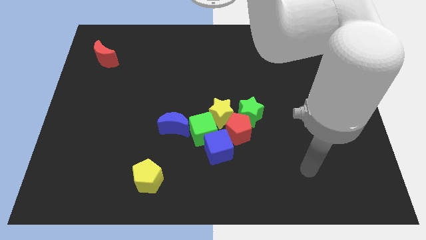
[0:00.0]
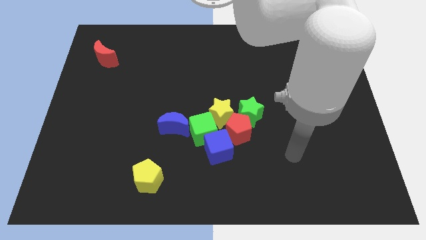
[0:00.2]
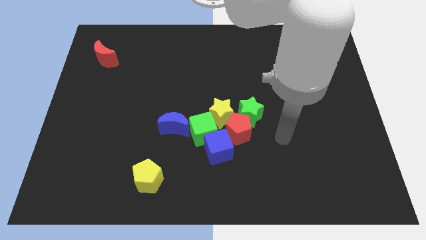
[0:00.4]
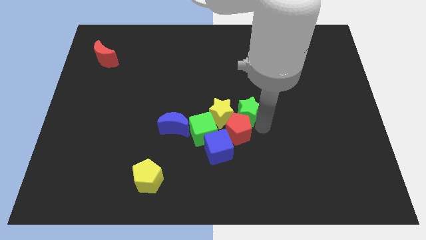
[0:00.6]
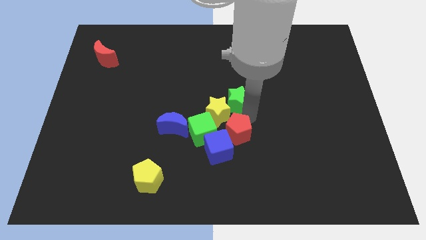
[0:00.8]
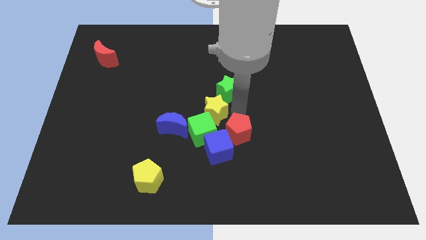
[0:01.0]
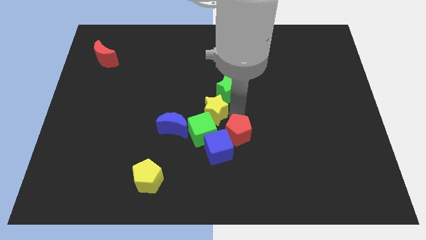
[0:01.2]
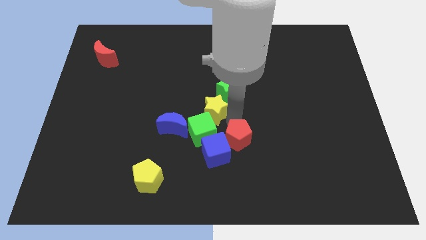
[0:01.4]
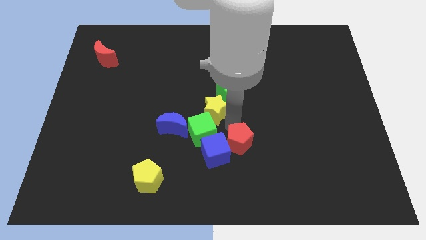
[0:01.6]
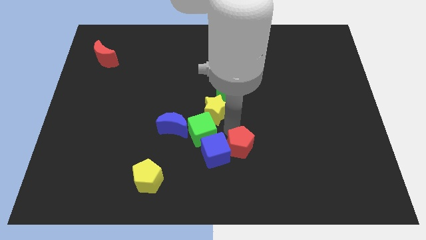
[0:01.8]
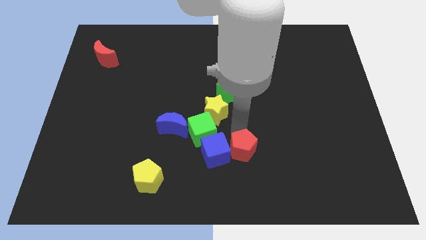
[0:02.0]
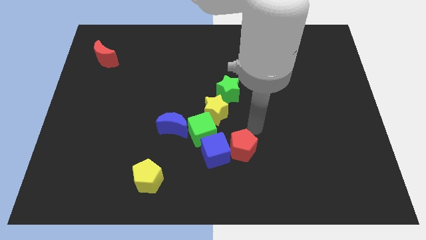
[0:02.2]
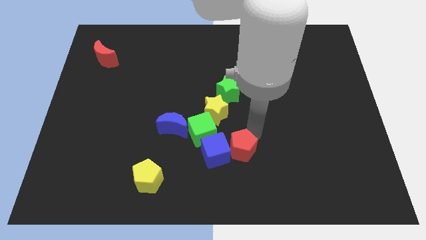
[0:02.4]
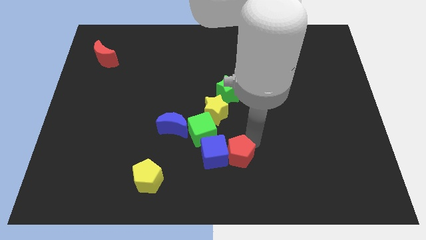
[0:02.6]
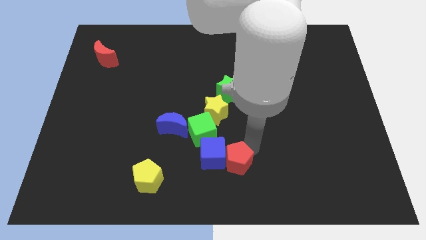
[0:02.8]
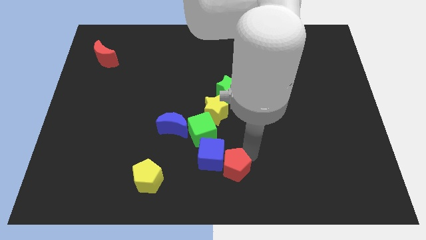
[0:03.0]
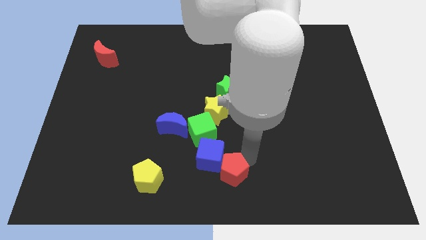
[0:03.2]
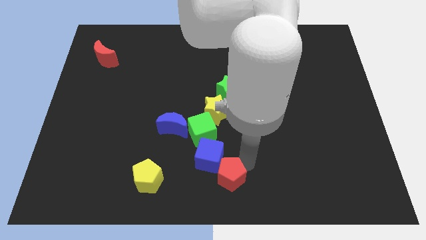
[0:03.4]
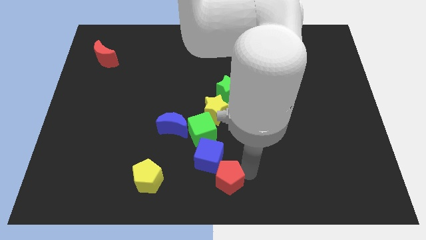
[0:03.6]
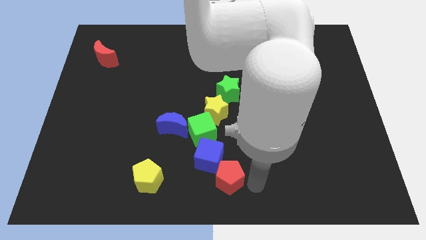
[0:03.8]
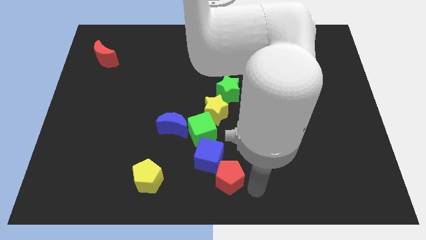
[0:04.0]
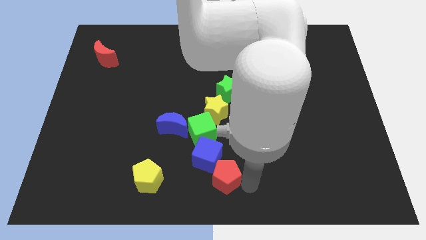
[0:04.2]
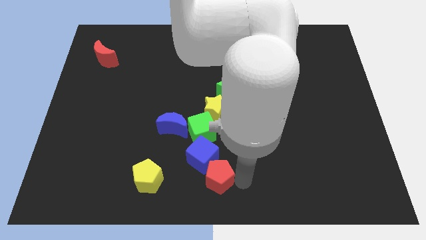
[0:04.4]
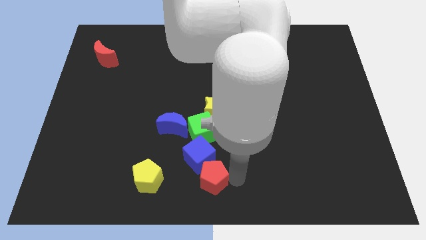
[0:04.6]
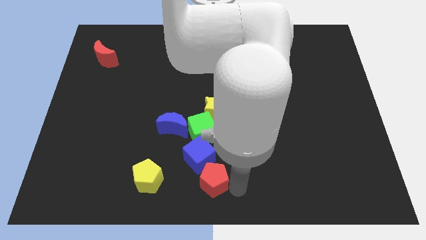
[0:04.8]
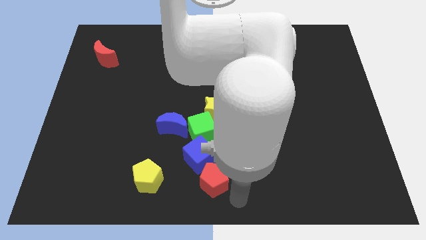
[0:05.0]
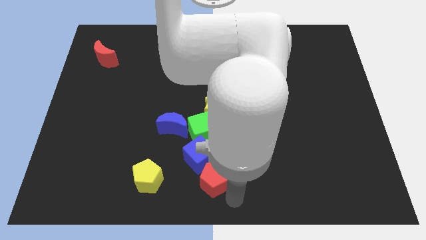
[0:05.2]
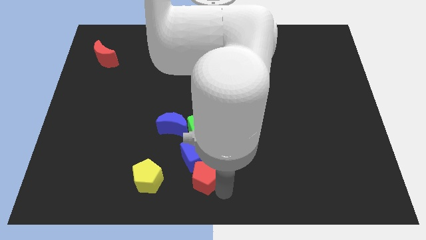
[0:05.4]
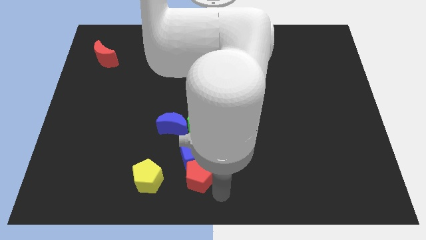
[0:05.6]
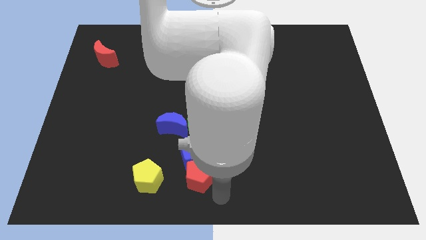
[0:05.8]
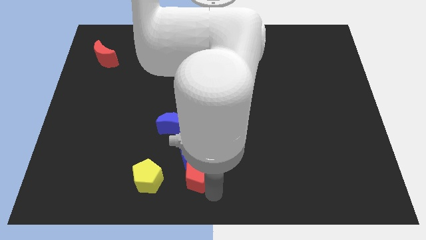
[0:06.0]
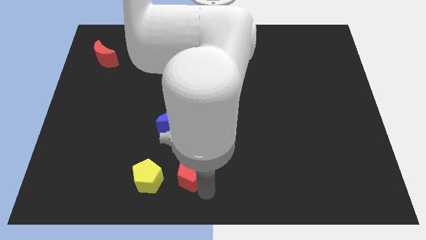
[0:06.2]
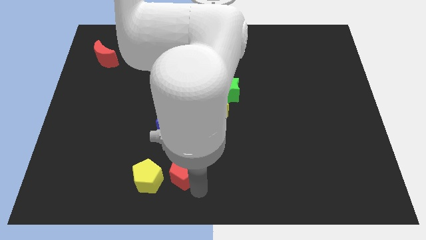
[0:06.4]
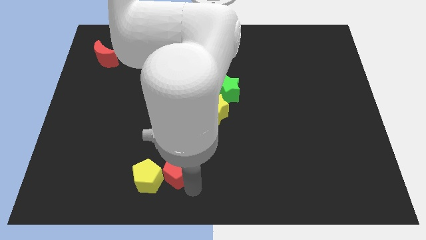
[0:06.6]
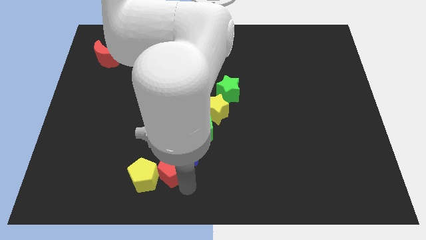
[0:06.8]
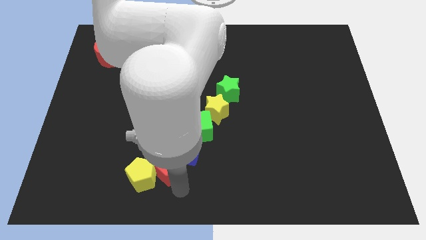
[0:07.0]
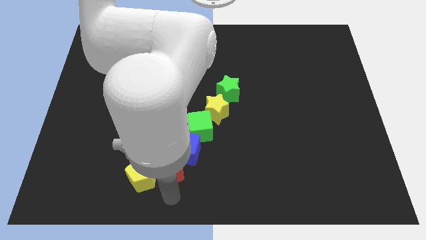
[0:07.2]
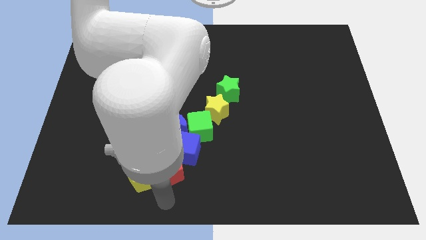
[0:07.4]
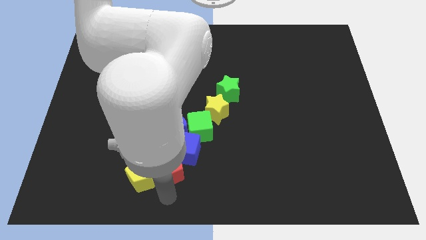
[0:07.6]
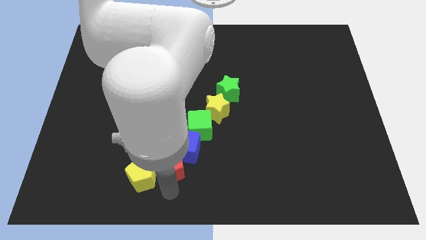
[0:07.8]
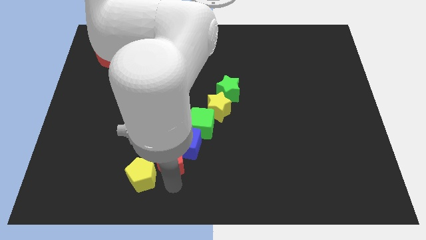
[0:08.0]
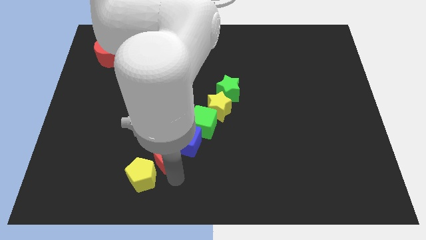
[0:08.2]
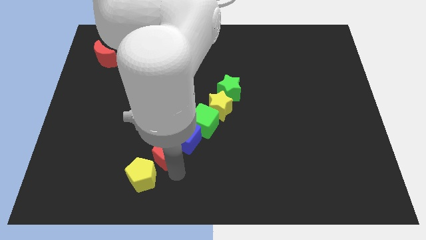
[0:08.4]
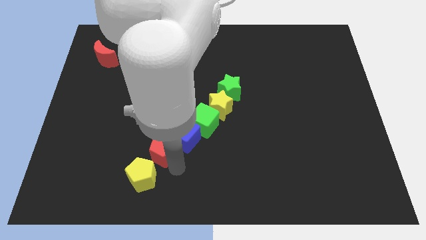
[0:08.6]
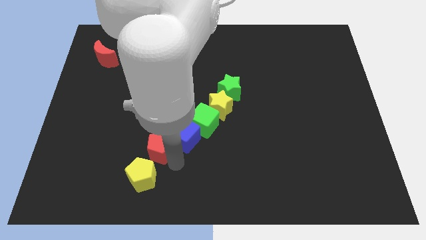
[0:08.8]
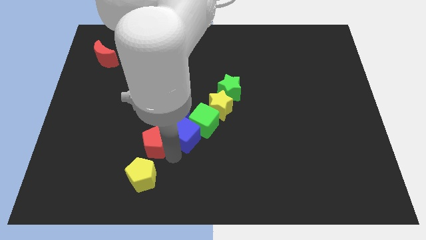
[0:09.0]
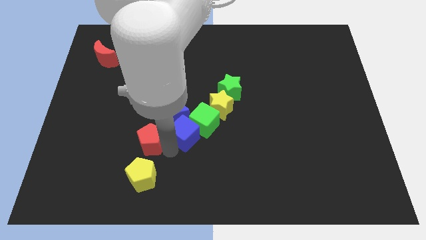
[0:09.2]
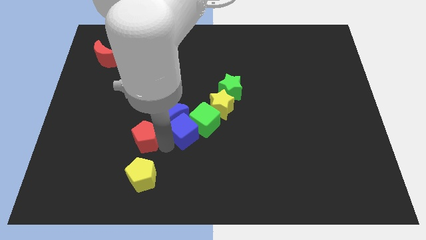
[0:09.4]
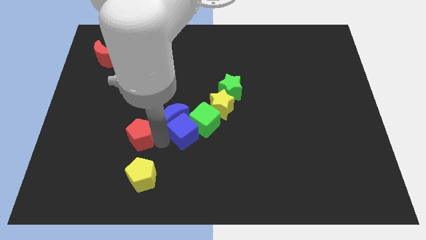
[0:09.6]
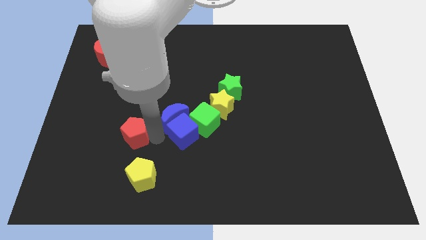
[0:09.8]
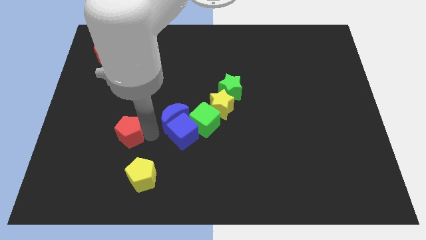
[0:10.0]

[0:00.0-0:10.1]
push the red pentagon to the top left side of the yellow pentagon

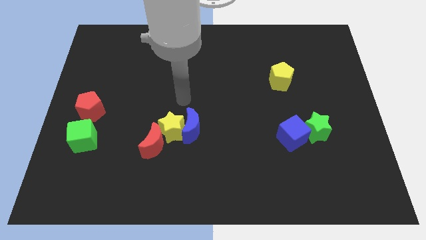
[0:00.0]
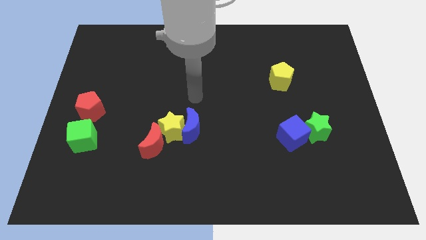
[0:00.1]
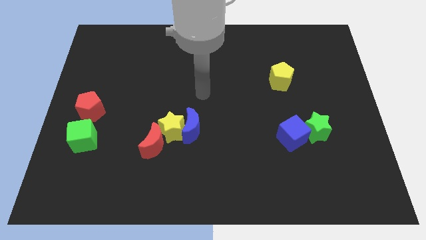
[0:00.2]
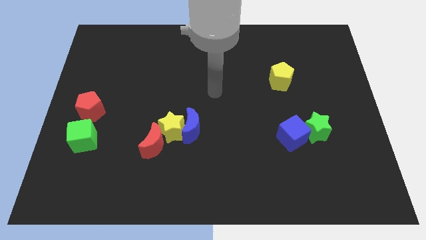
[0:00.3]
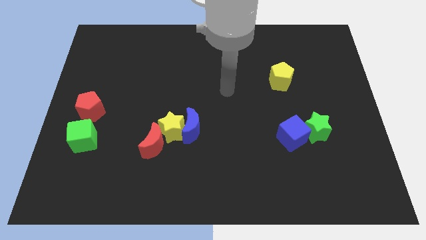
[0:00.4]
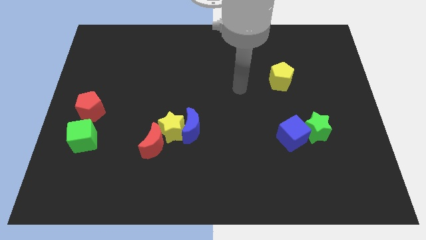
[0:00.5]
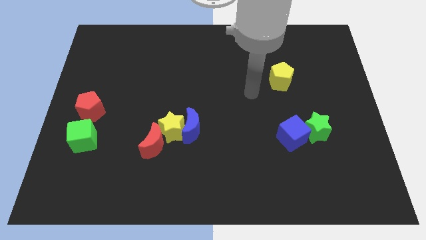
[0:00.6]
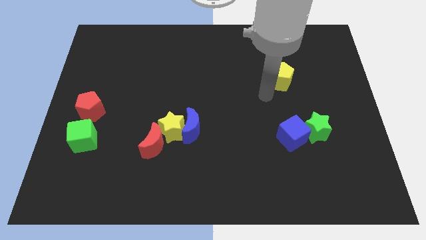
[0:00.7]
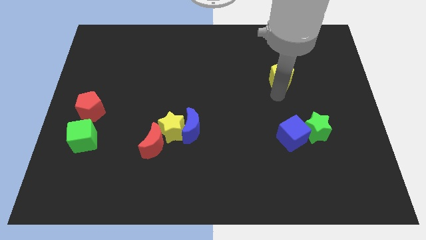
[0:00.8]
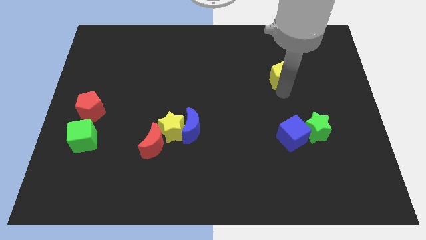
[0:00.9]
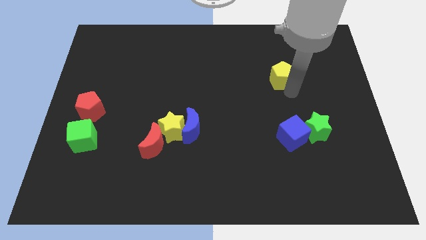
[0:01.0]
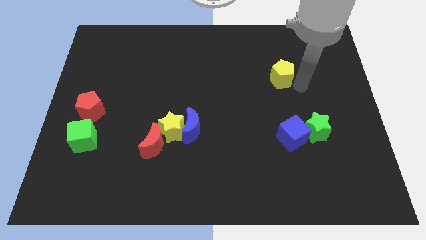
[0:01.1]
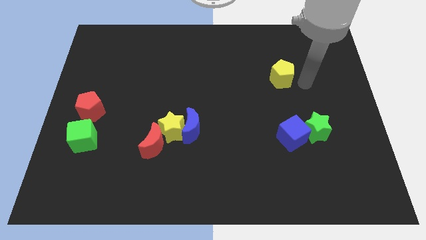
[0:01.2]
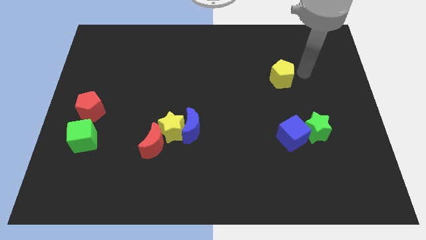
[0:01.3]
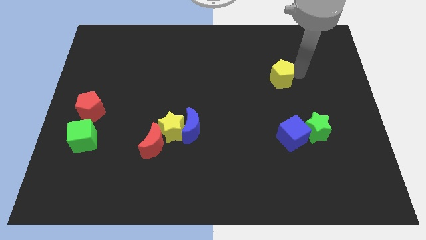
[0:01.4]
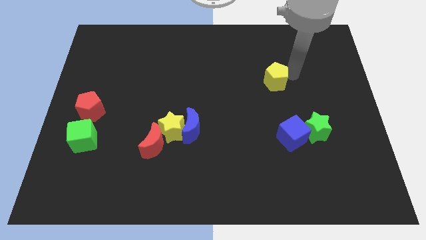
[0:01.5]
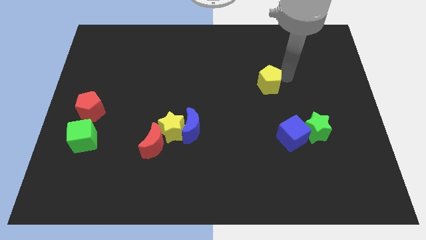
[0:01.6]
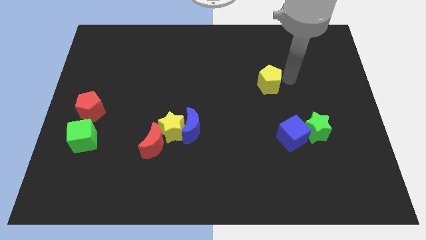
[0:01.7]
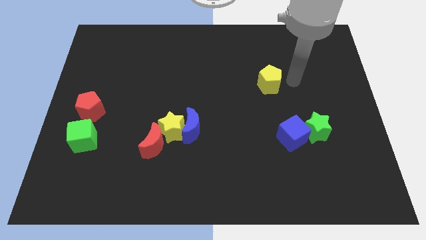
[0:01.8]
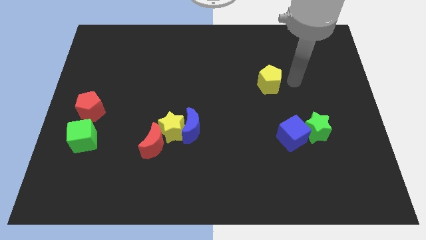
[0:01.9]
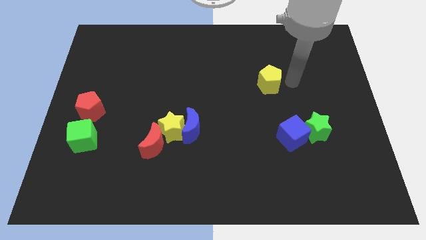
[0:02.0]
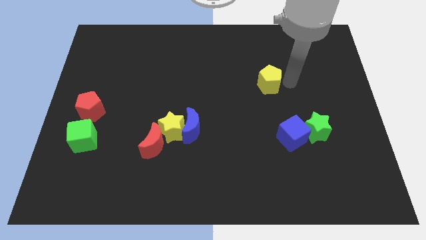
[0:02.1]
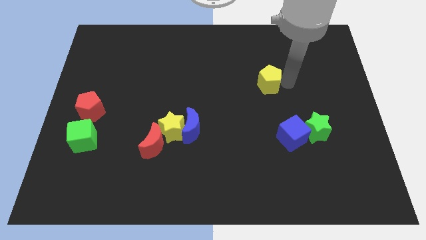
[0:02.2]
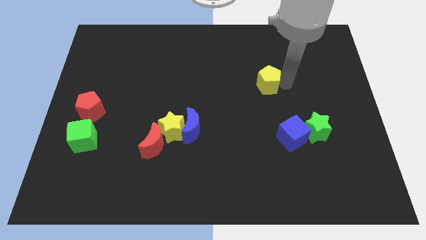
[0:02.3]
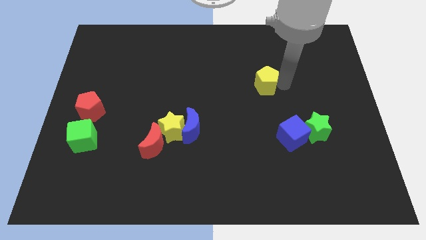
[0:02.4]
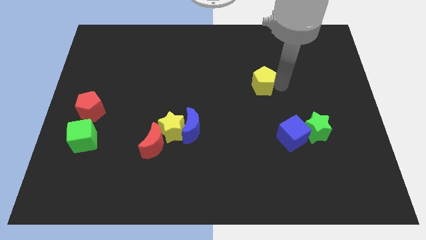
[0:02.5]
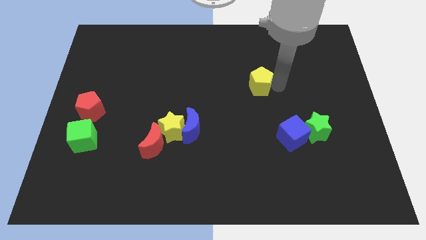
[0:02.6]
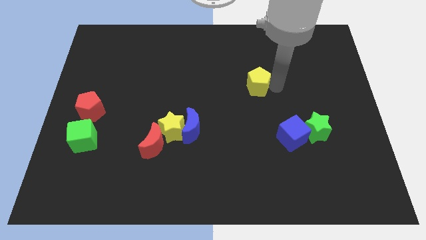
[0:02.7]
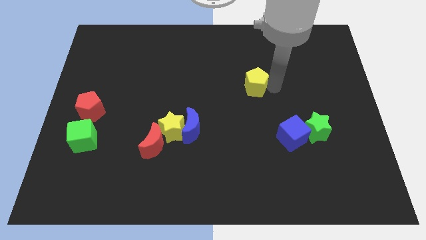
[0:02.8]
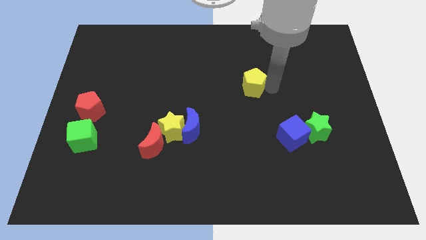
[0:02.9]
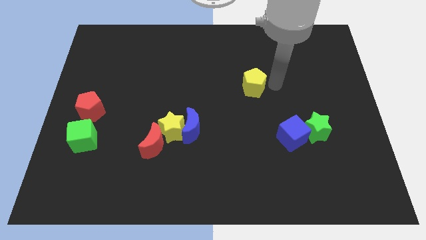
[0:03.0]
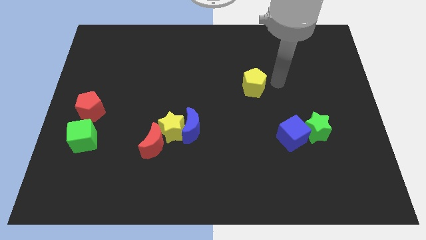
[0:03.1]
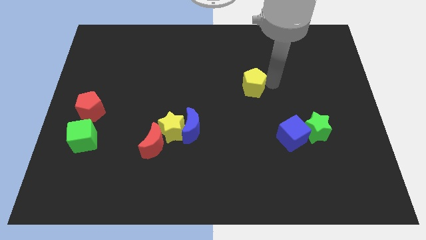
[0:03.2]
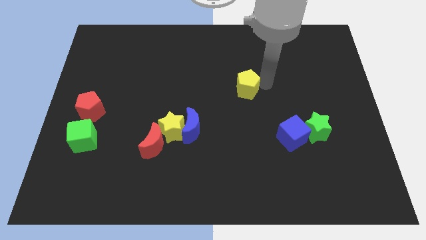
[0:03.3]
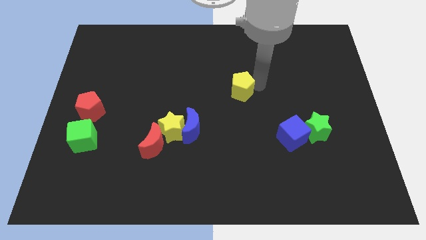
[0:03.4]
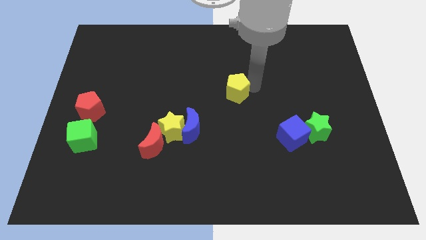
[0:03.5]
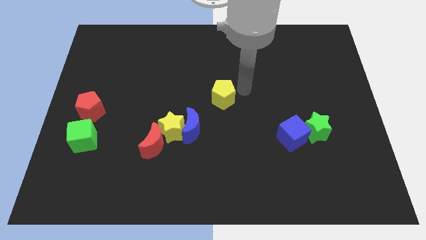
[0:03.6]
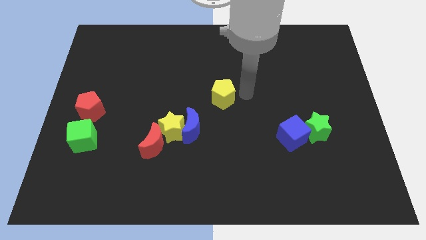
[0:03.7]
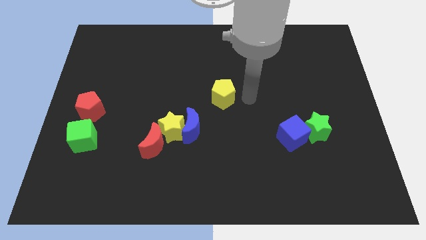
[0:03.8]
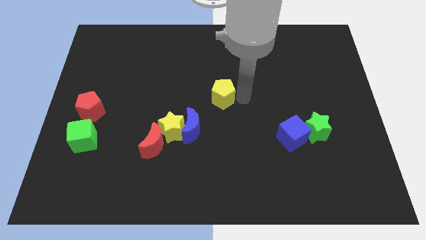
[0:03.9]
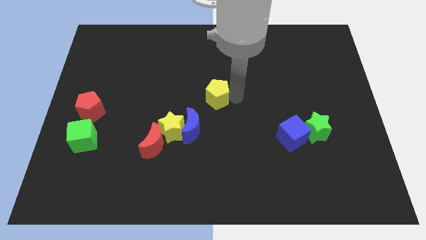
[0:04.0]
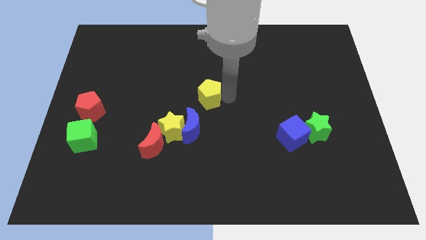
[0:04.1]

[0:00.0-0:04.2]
put the yellow pentagon to the top side of the blue moon
